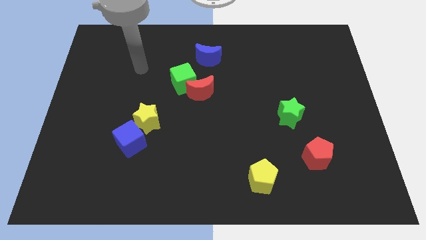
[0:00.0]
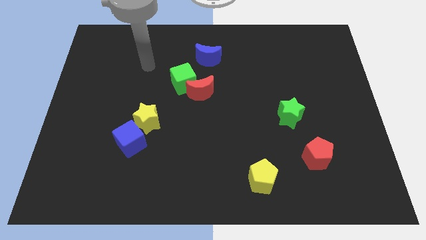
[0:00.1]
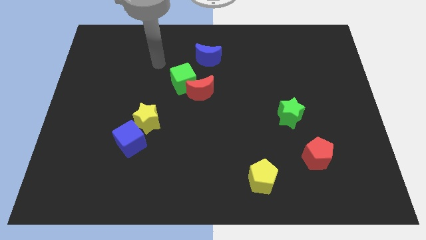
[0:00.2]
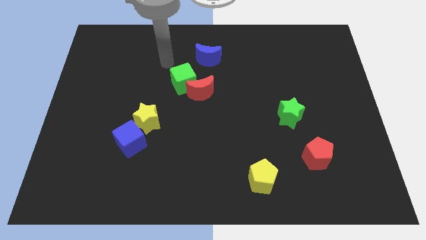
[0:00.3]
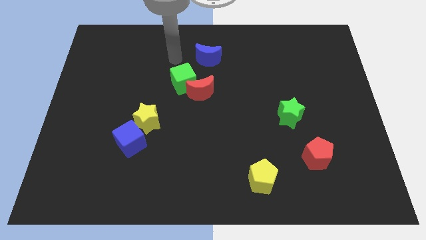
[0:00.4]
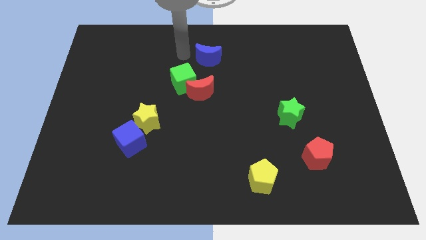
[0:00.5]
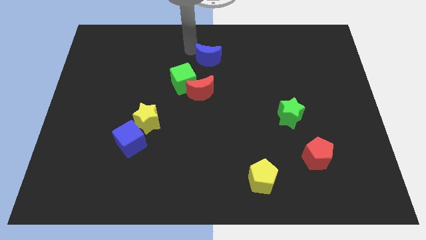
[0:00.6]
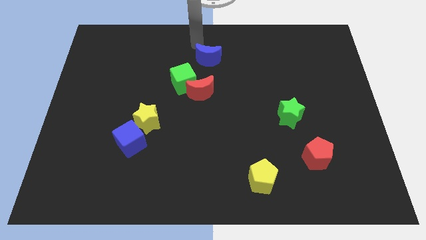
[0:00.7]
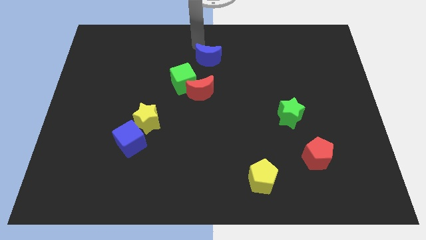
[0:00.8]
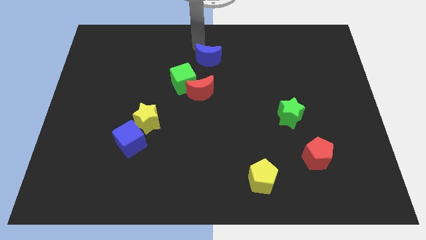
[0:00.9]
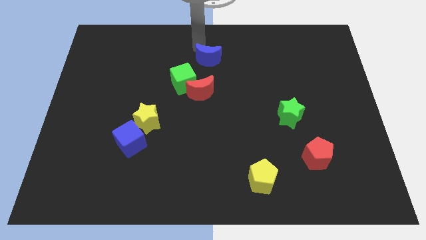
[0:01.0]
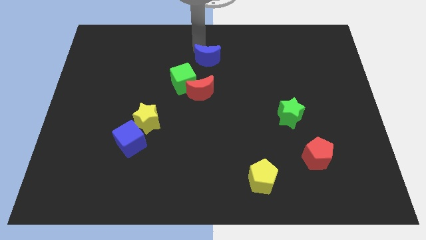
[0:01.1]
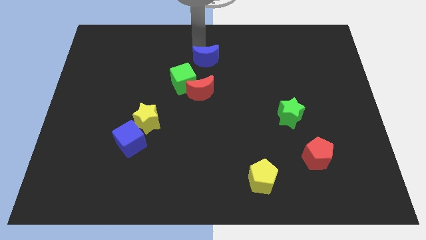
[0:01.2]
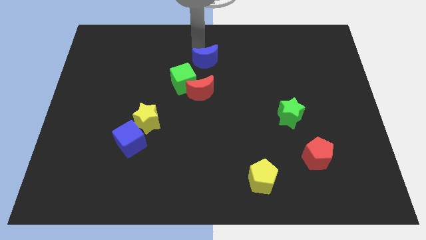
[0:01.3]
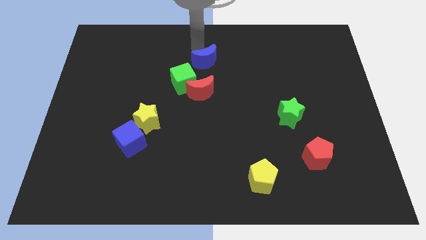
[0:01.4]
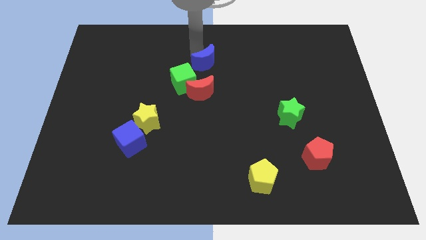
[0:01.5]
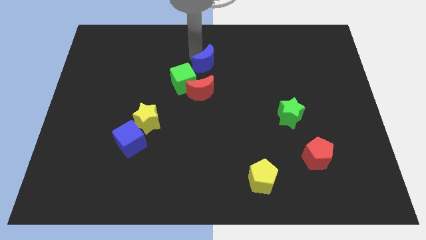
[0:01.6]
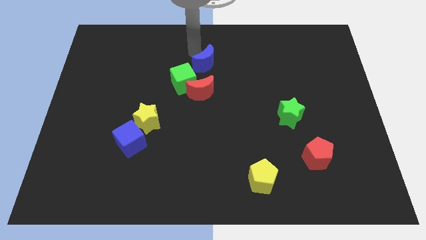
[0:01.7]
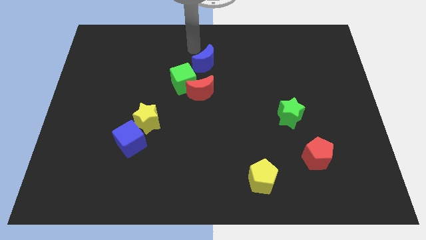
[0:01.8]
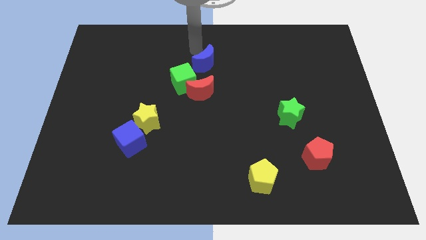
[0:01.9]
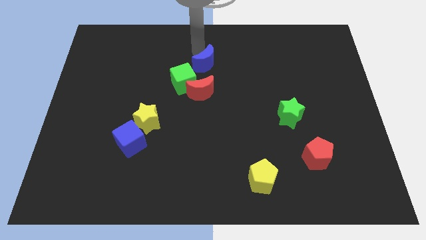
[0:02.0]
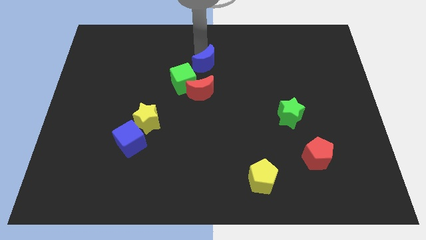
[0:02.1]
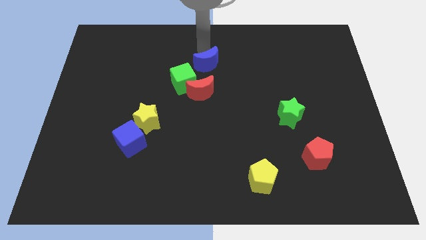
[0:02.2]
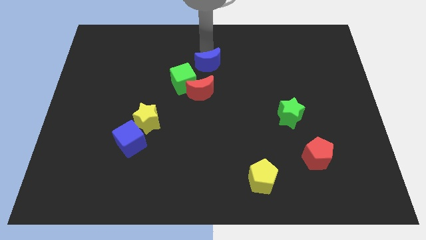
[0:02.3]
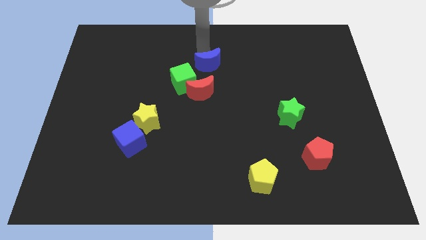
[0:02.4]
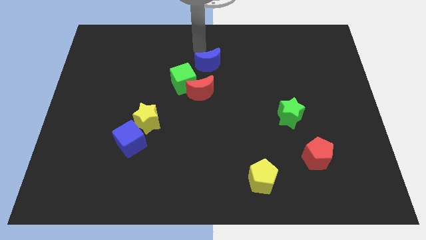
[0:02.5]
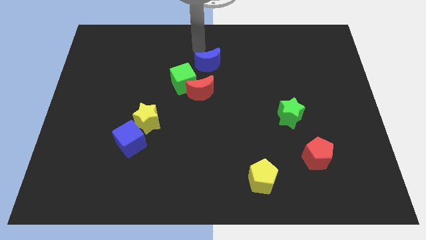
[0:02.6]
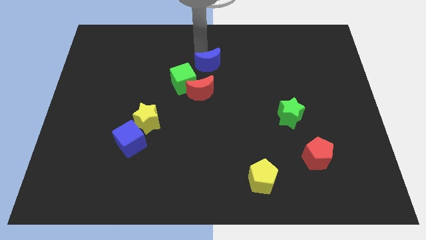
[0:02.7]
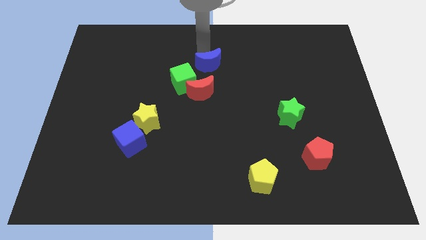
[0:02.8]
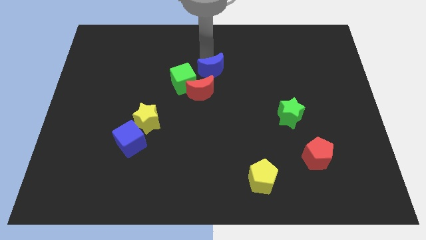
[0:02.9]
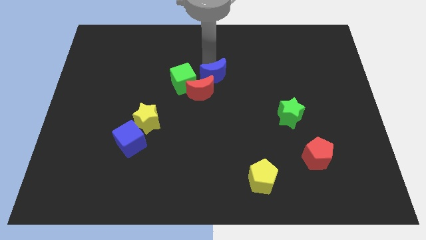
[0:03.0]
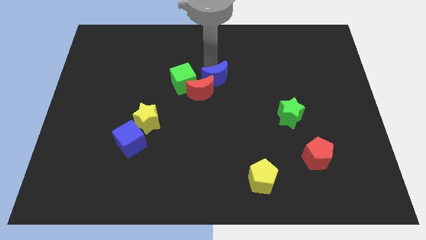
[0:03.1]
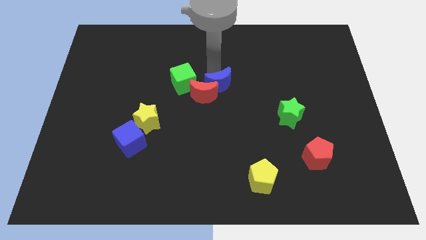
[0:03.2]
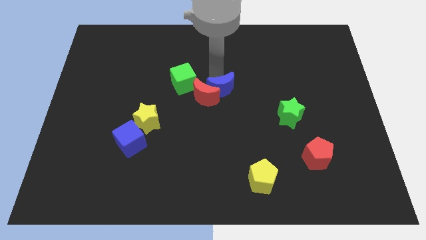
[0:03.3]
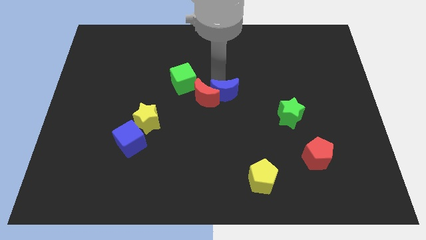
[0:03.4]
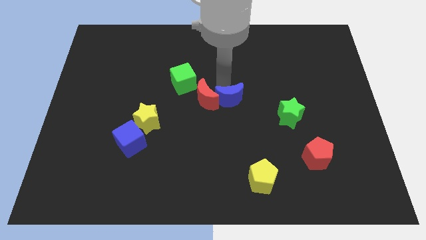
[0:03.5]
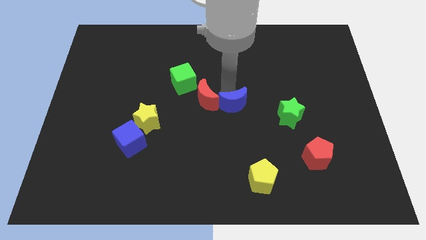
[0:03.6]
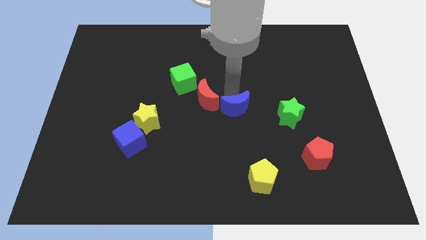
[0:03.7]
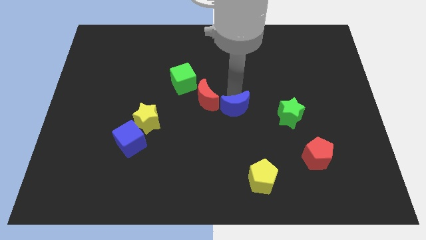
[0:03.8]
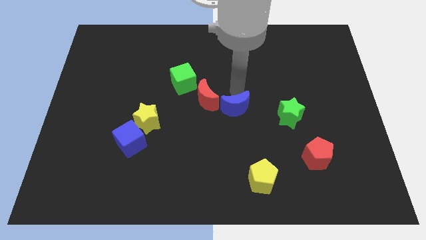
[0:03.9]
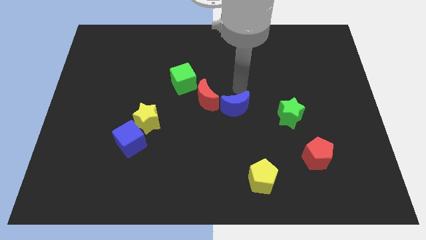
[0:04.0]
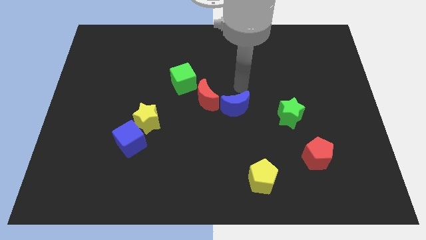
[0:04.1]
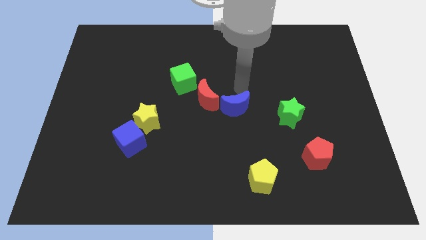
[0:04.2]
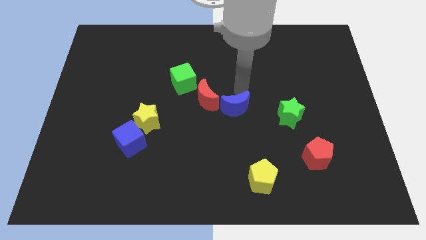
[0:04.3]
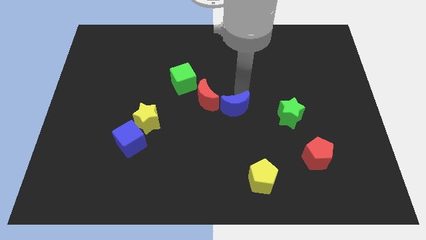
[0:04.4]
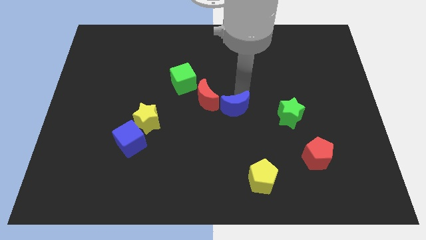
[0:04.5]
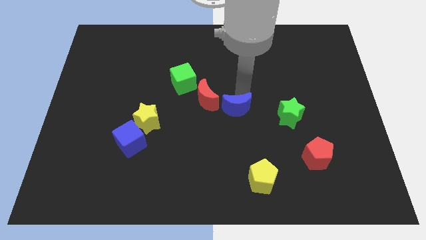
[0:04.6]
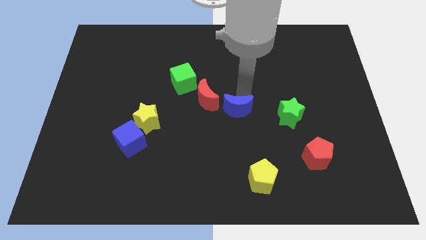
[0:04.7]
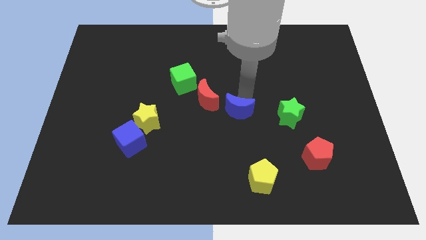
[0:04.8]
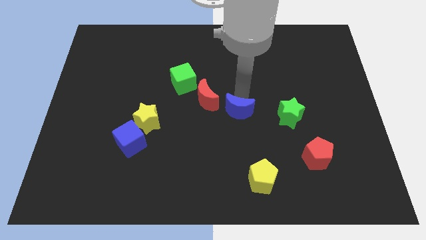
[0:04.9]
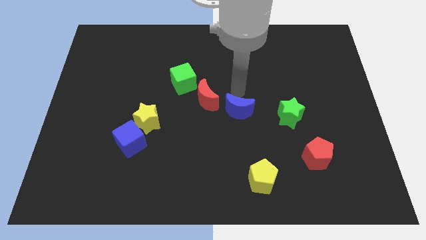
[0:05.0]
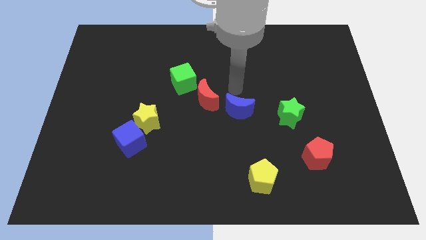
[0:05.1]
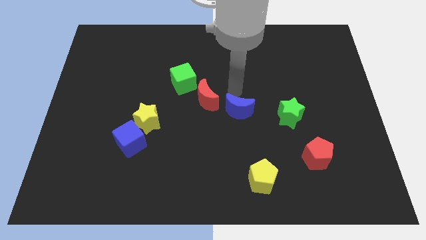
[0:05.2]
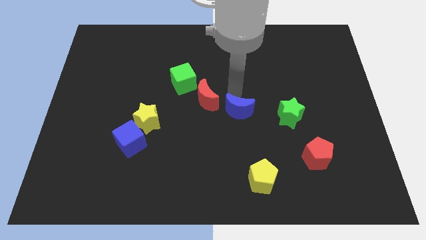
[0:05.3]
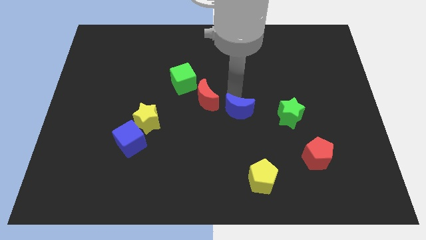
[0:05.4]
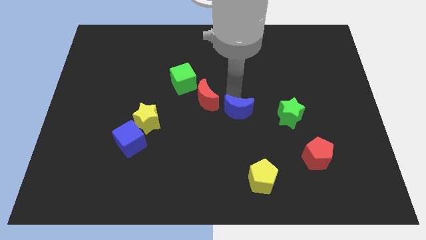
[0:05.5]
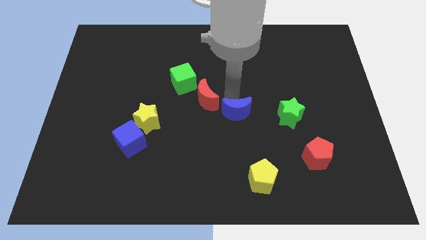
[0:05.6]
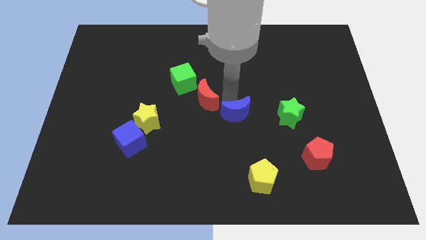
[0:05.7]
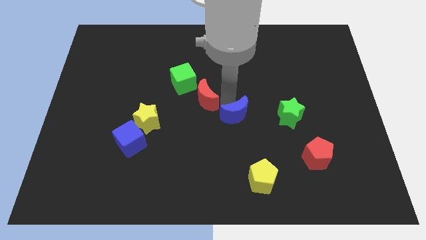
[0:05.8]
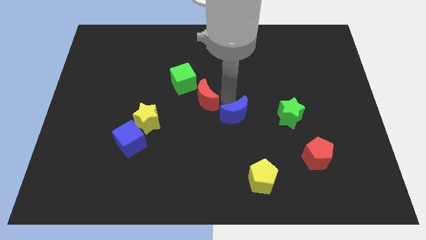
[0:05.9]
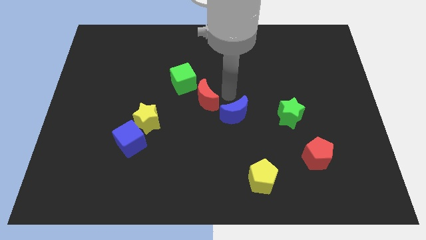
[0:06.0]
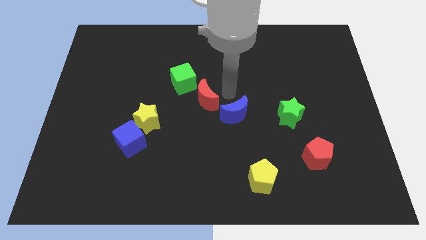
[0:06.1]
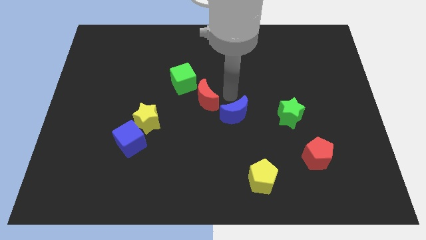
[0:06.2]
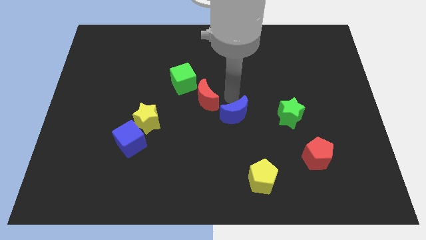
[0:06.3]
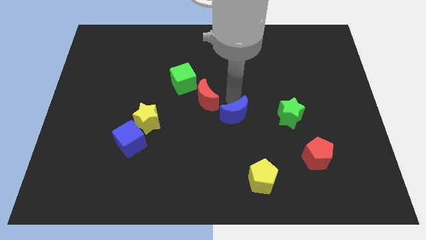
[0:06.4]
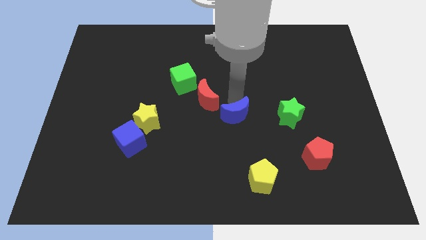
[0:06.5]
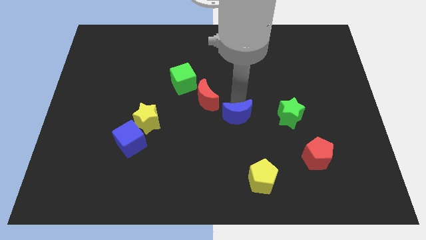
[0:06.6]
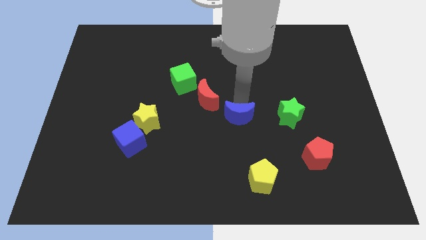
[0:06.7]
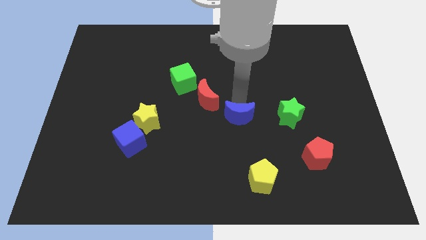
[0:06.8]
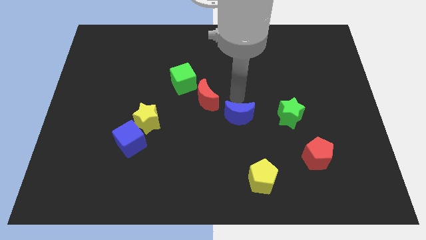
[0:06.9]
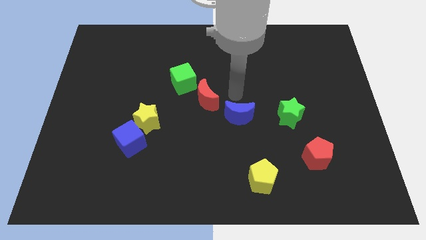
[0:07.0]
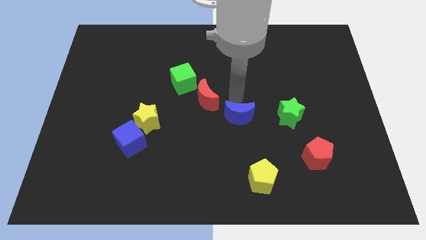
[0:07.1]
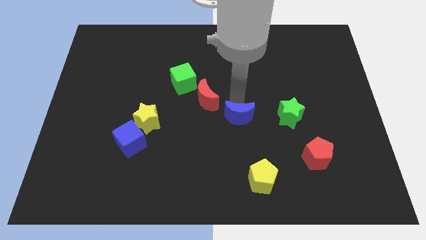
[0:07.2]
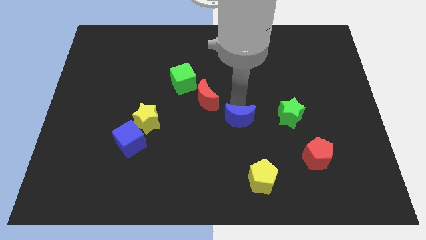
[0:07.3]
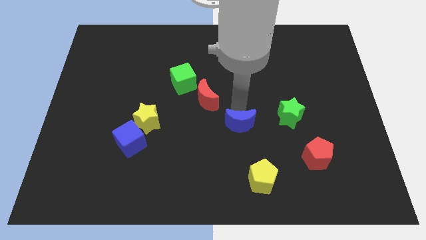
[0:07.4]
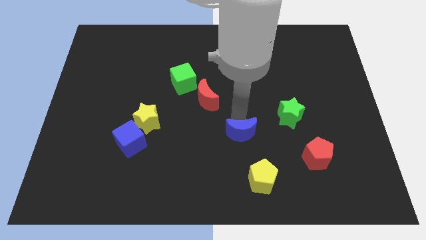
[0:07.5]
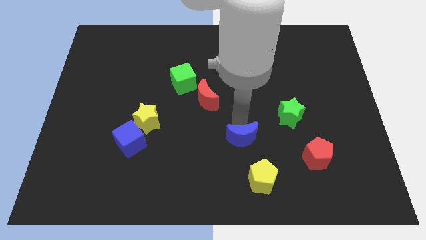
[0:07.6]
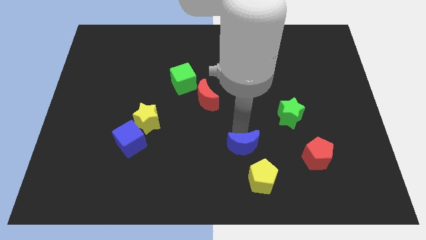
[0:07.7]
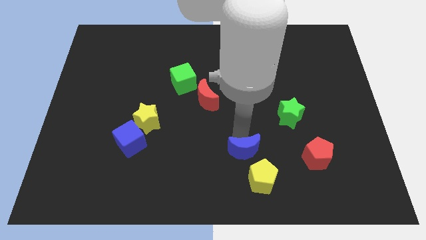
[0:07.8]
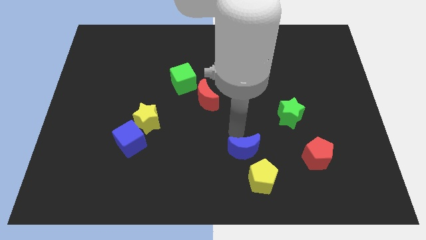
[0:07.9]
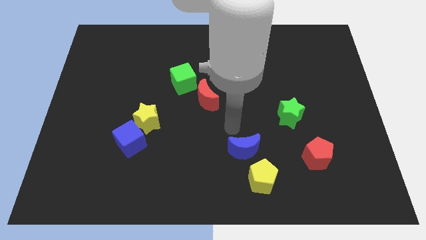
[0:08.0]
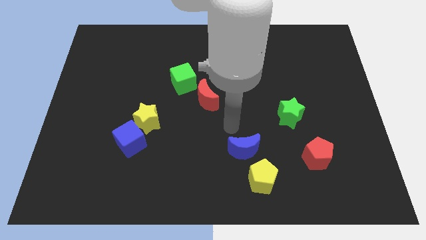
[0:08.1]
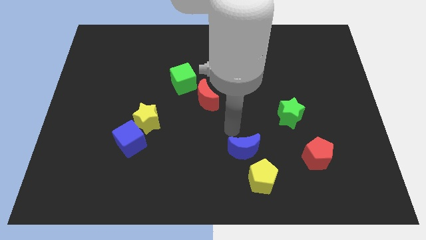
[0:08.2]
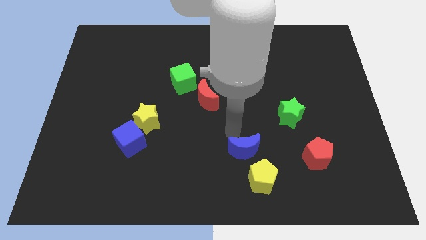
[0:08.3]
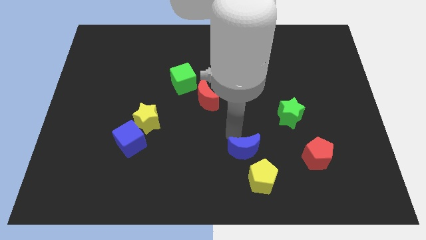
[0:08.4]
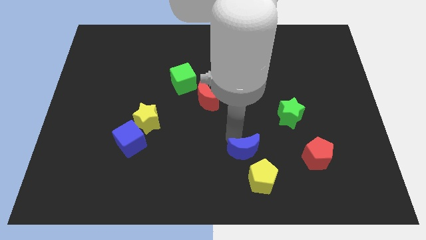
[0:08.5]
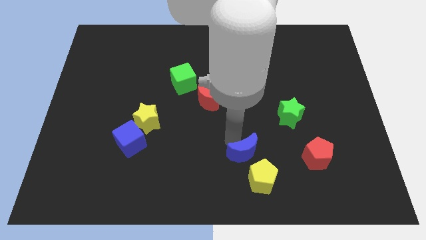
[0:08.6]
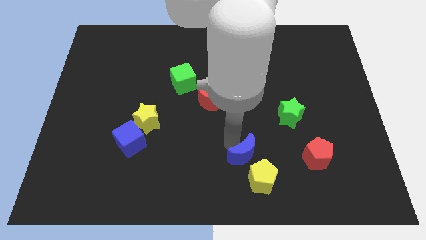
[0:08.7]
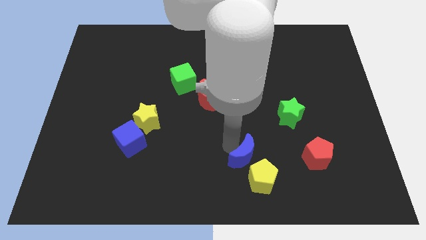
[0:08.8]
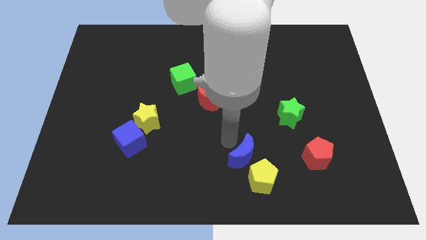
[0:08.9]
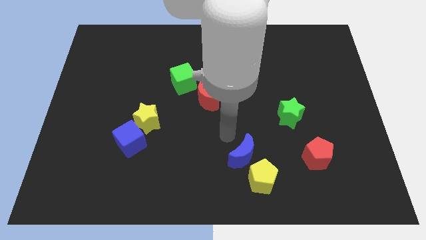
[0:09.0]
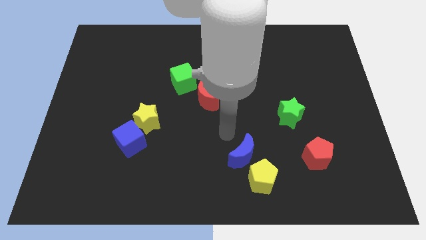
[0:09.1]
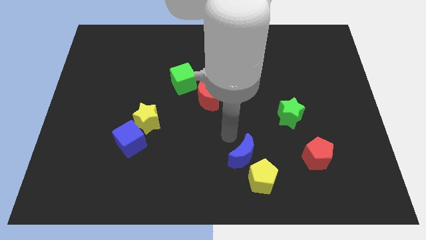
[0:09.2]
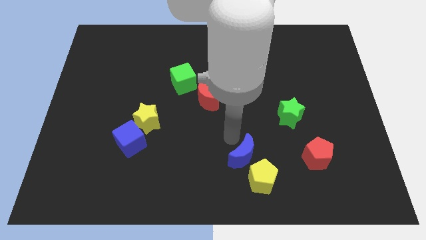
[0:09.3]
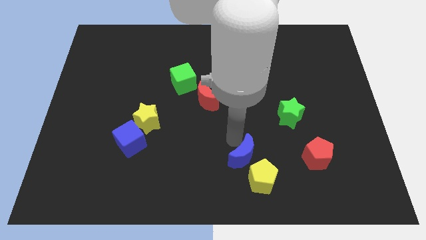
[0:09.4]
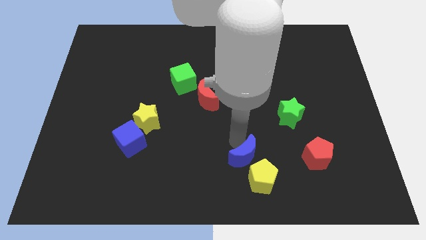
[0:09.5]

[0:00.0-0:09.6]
push the blue moon next to the yellow pentagon
